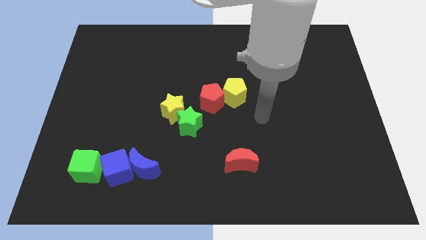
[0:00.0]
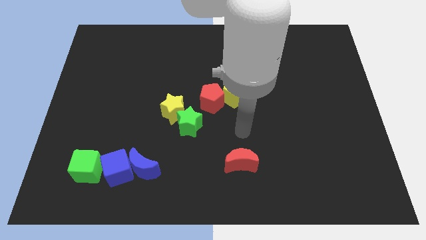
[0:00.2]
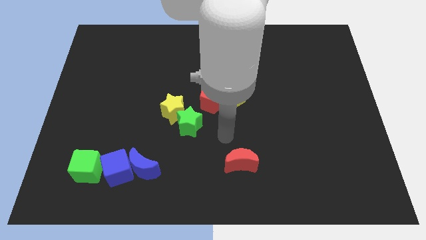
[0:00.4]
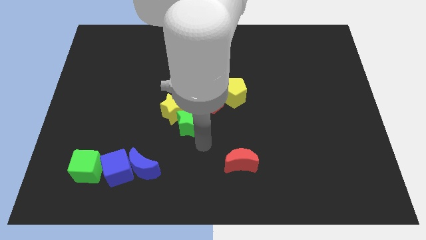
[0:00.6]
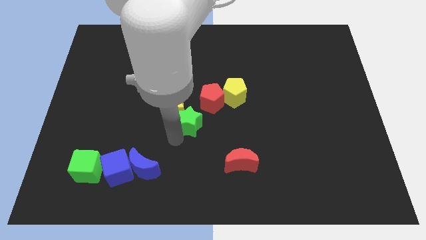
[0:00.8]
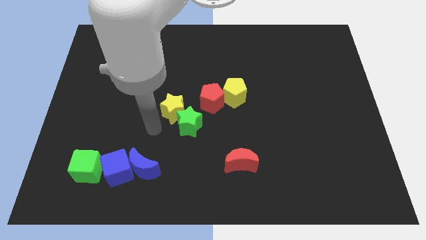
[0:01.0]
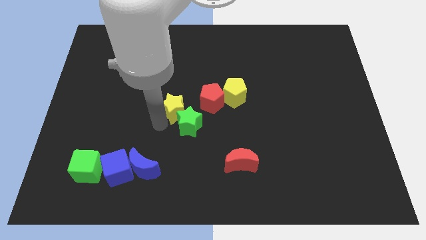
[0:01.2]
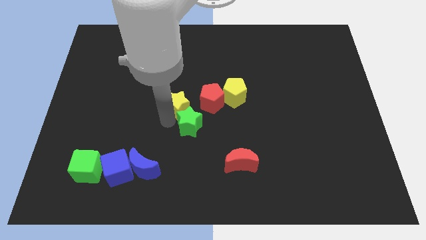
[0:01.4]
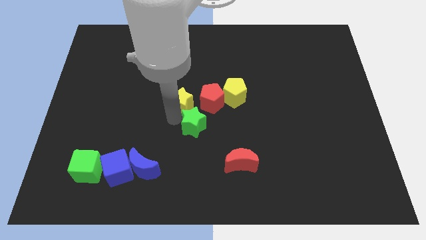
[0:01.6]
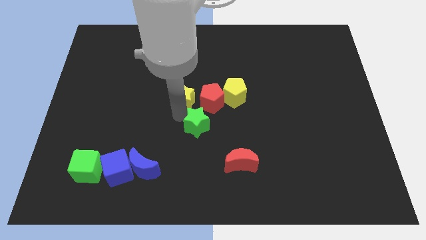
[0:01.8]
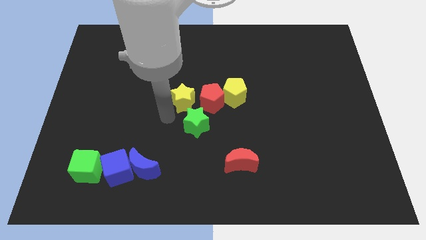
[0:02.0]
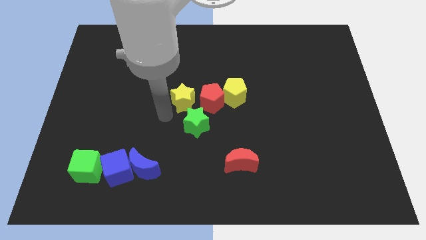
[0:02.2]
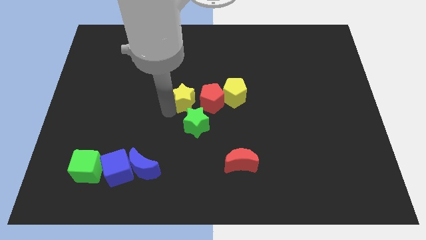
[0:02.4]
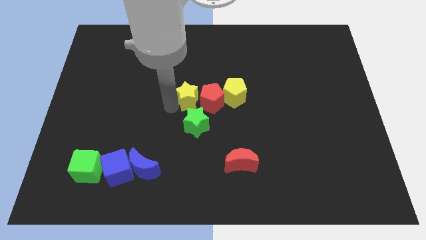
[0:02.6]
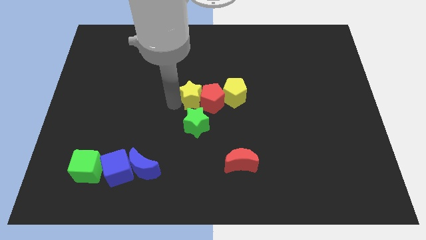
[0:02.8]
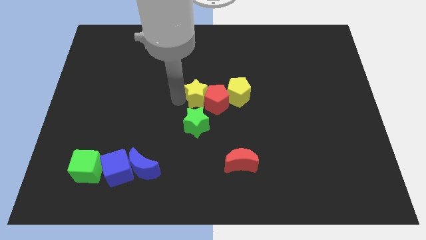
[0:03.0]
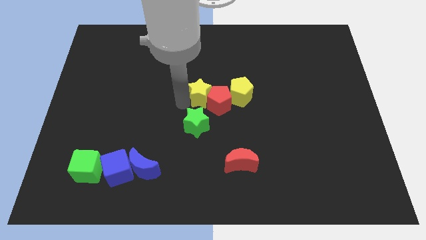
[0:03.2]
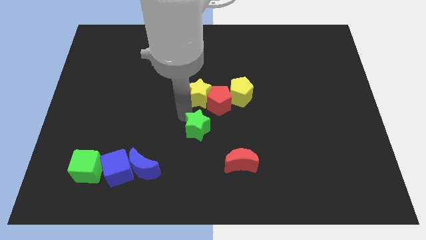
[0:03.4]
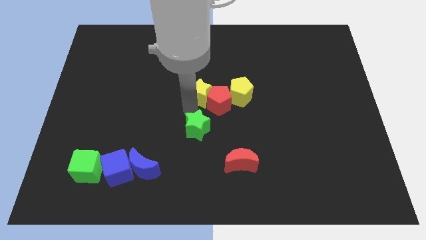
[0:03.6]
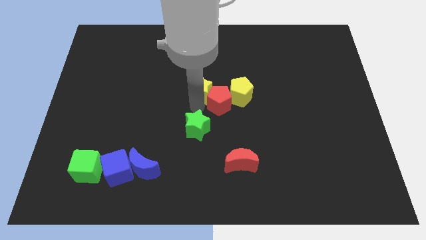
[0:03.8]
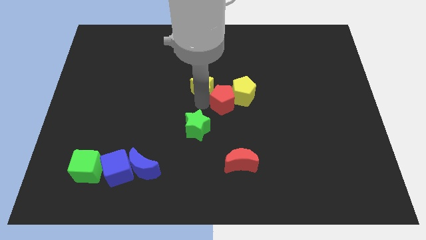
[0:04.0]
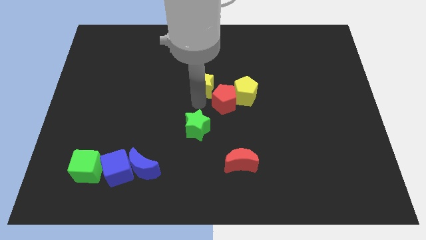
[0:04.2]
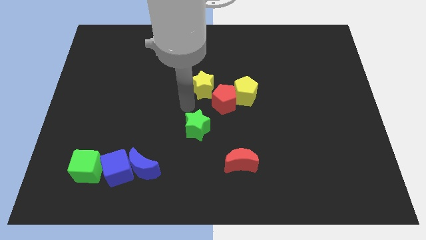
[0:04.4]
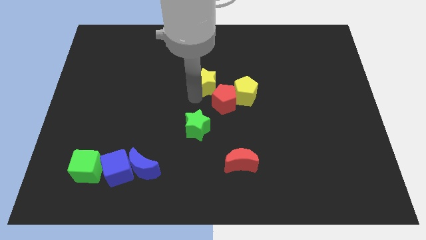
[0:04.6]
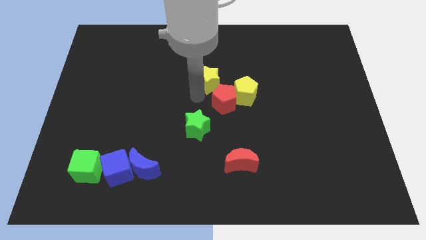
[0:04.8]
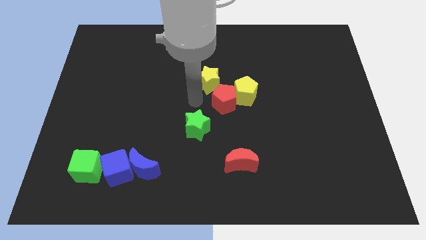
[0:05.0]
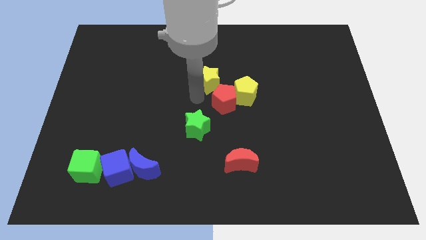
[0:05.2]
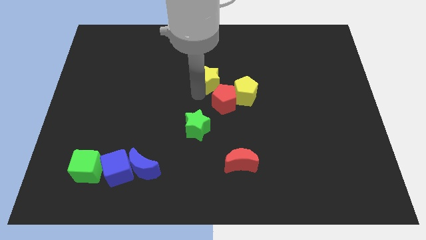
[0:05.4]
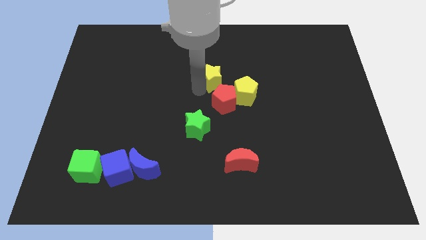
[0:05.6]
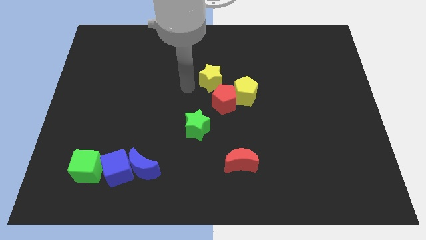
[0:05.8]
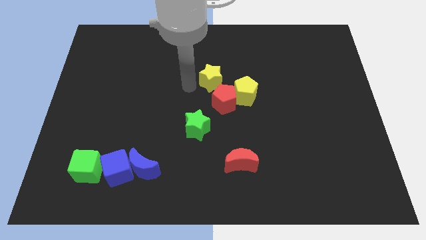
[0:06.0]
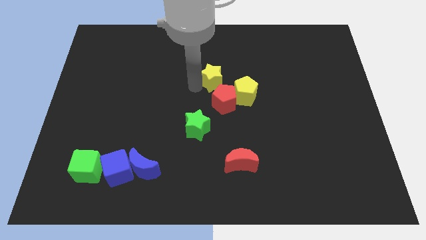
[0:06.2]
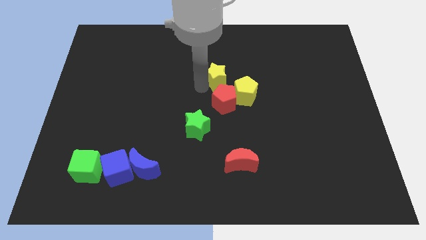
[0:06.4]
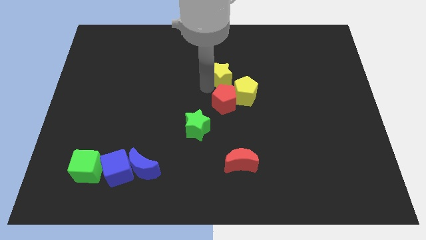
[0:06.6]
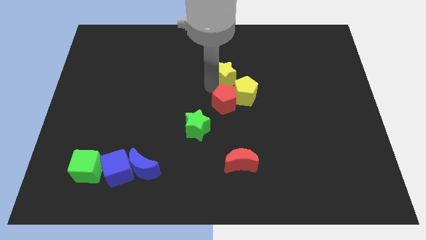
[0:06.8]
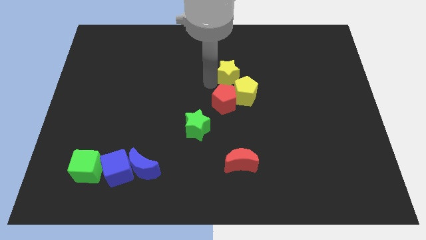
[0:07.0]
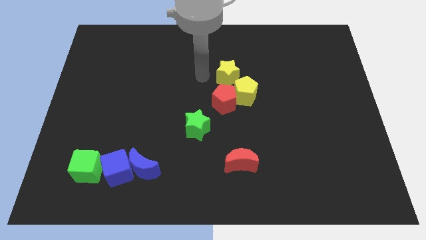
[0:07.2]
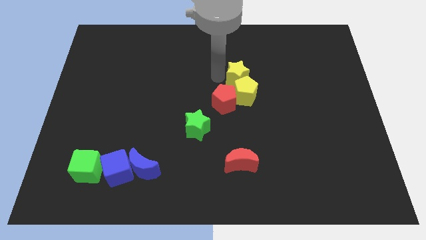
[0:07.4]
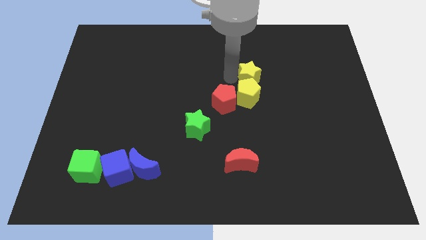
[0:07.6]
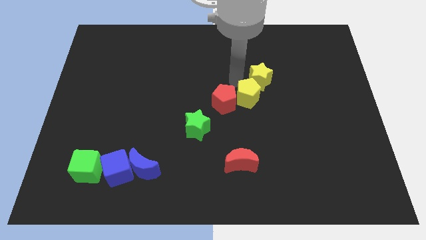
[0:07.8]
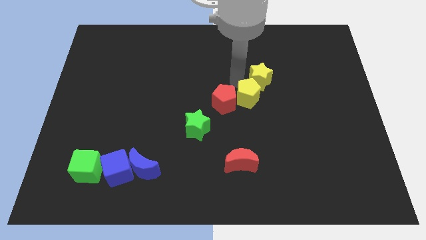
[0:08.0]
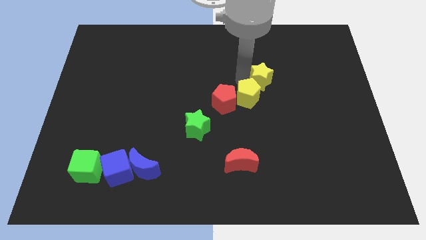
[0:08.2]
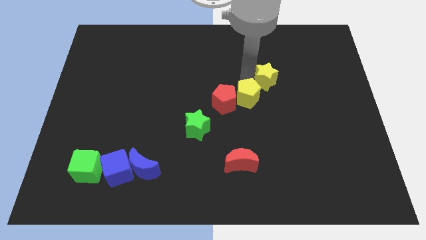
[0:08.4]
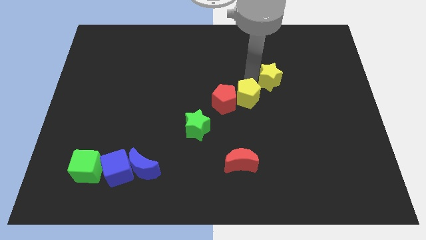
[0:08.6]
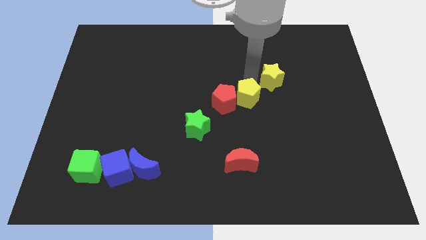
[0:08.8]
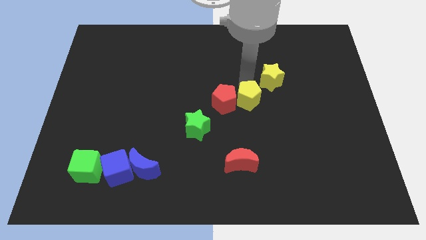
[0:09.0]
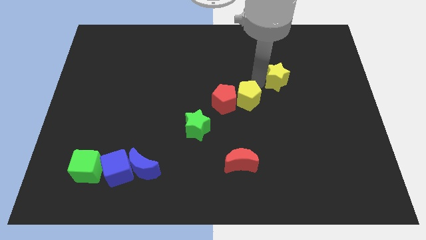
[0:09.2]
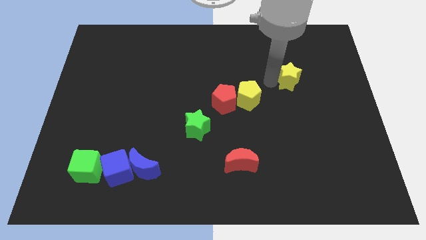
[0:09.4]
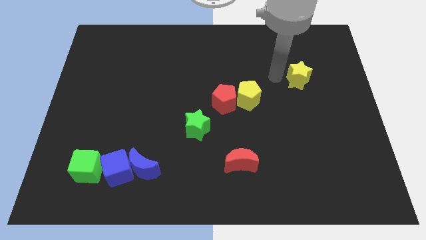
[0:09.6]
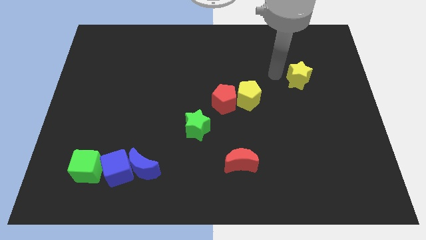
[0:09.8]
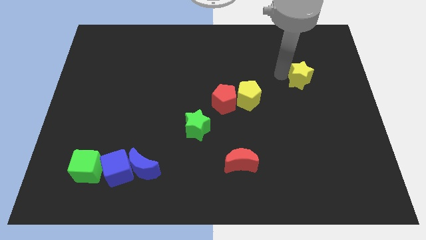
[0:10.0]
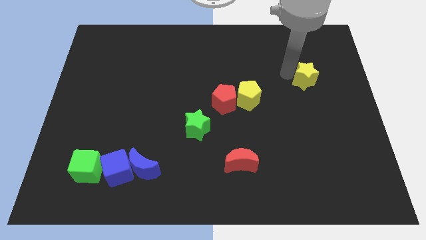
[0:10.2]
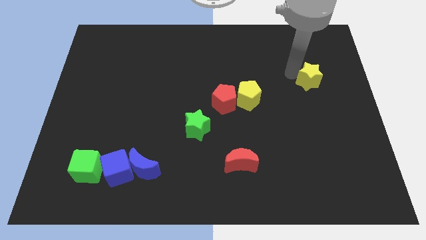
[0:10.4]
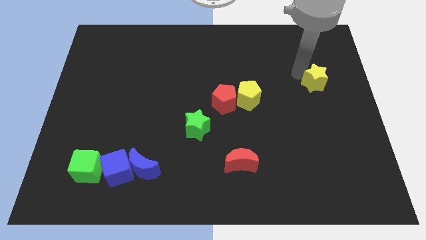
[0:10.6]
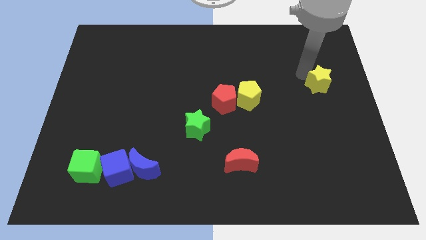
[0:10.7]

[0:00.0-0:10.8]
move the yellow star to the center right
